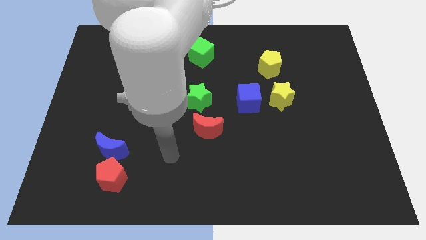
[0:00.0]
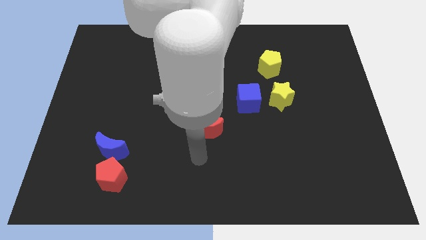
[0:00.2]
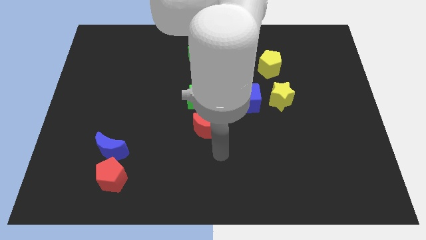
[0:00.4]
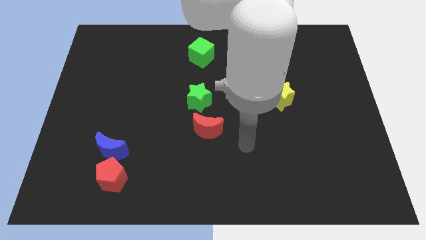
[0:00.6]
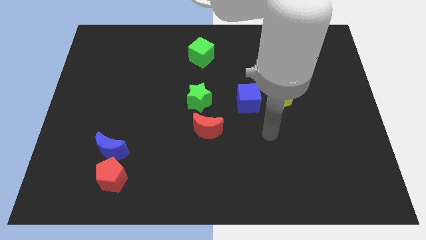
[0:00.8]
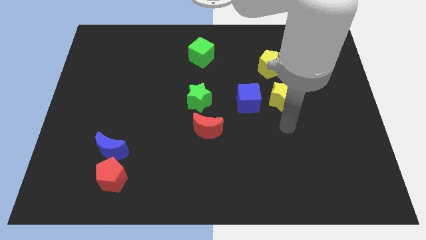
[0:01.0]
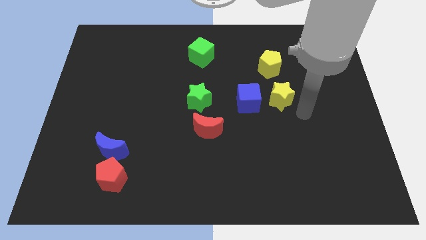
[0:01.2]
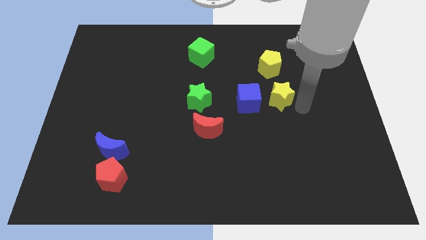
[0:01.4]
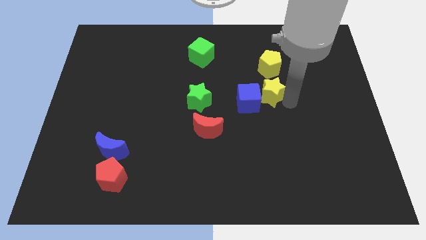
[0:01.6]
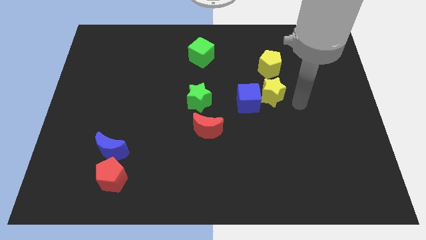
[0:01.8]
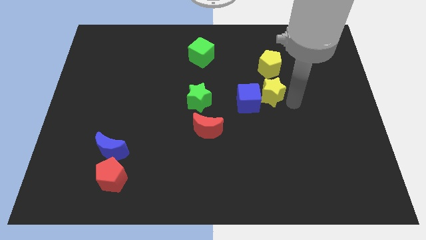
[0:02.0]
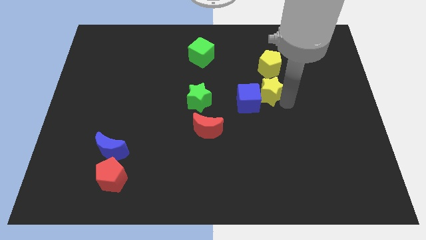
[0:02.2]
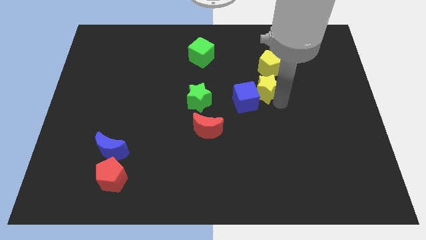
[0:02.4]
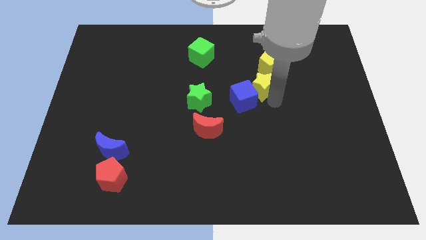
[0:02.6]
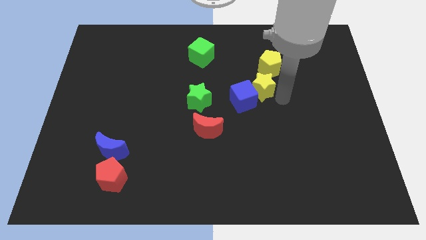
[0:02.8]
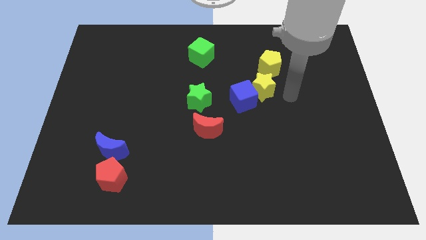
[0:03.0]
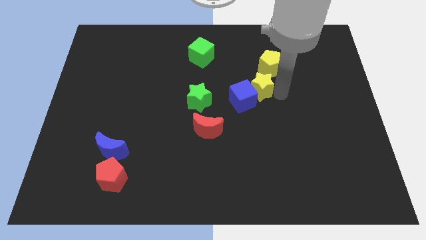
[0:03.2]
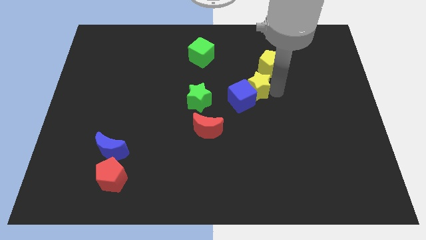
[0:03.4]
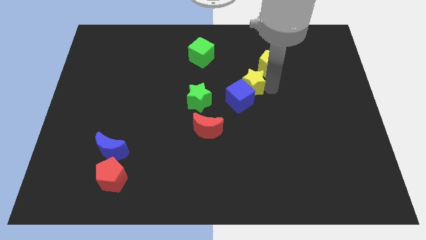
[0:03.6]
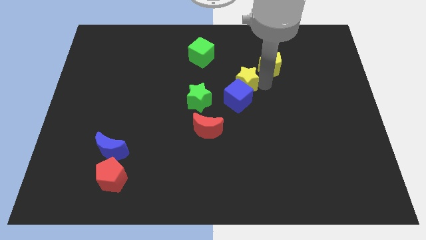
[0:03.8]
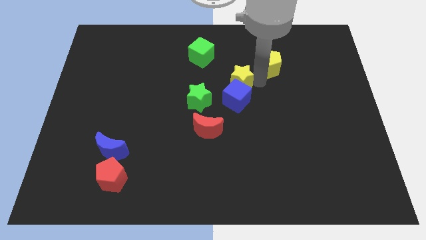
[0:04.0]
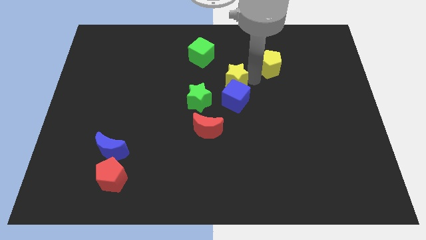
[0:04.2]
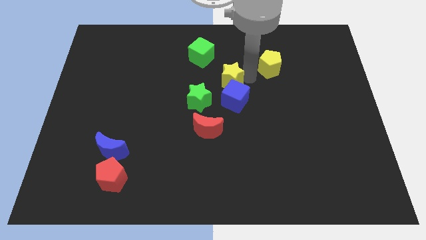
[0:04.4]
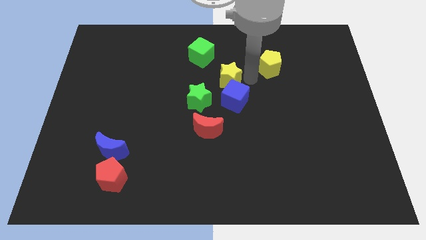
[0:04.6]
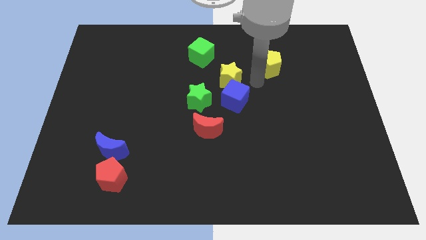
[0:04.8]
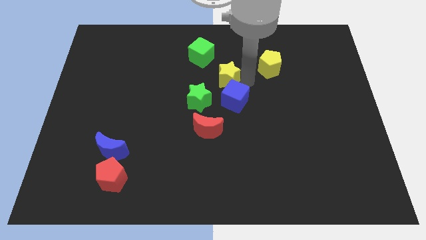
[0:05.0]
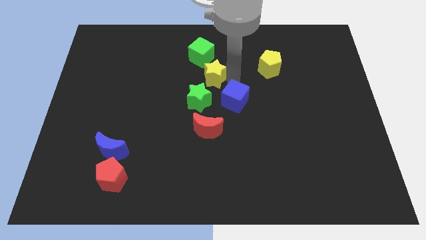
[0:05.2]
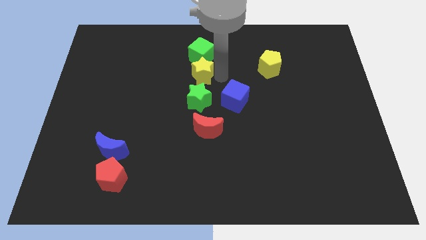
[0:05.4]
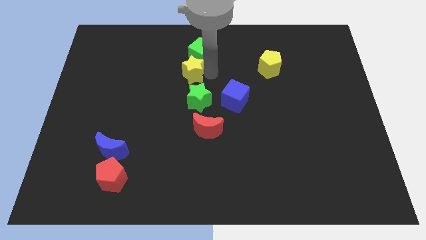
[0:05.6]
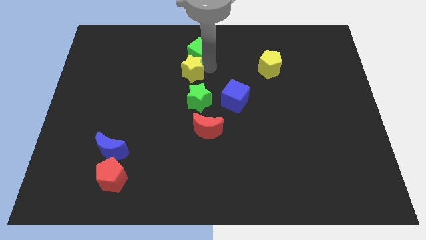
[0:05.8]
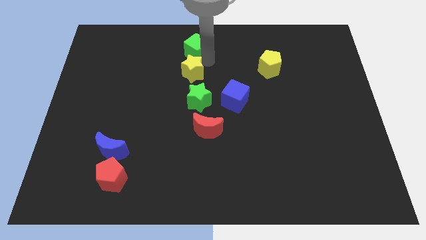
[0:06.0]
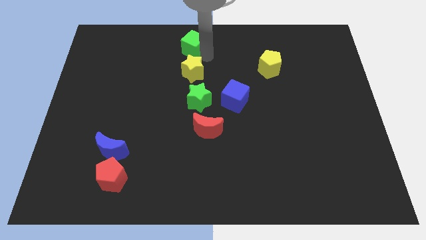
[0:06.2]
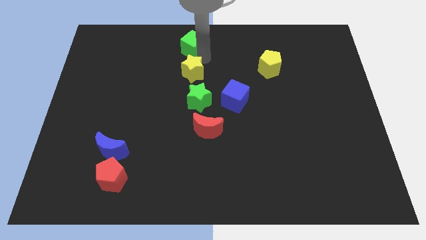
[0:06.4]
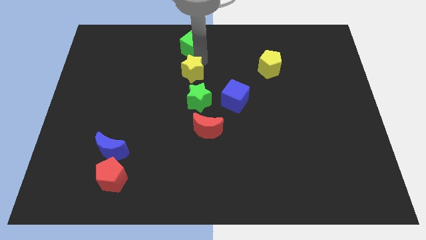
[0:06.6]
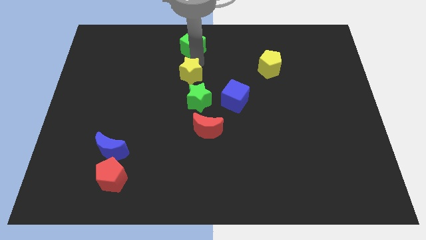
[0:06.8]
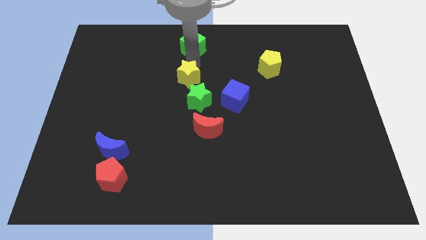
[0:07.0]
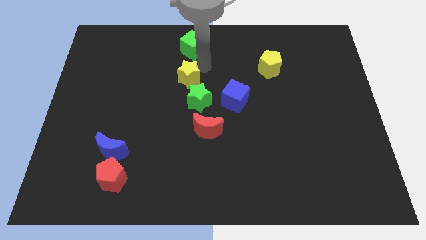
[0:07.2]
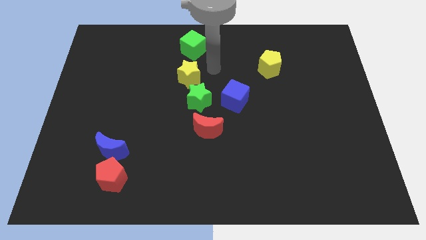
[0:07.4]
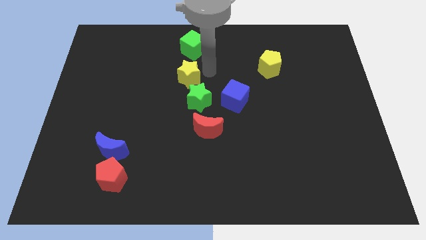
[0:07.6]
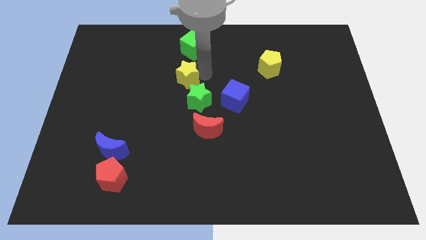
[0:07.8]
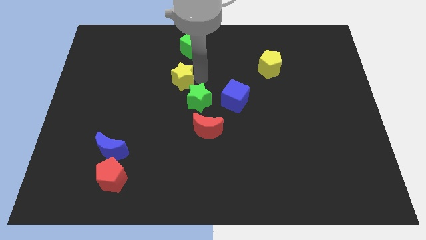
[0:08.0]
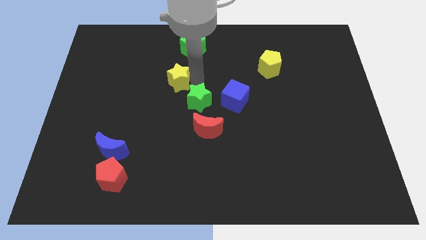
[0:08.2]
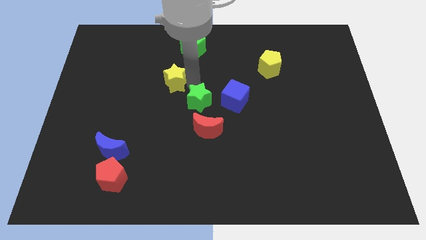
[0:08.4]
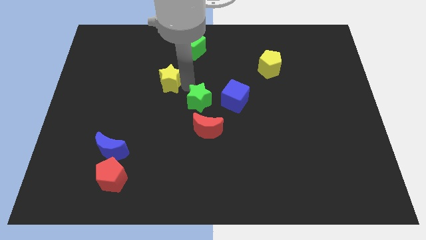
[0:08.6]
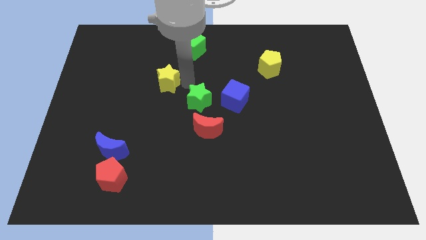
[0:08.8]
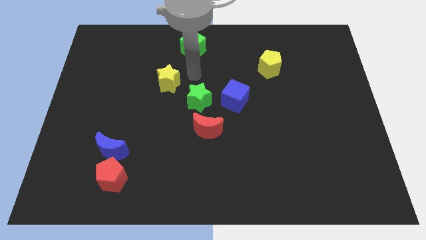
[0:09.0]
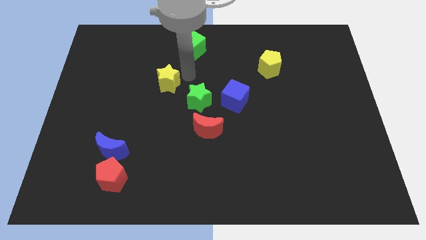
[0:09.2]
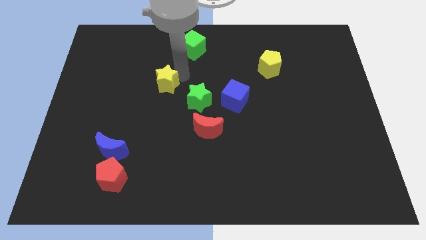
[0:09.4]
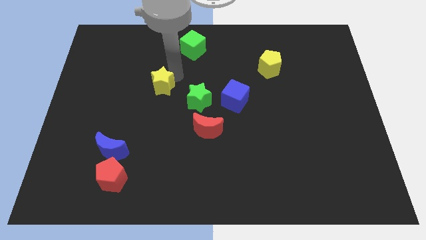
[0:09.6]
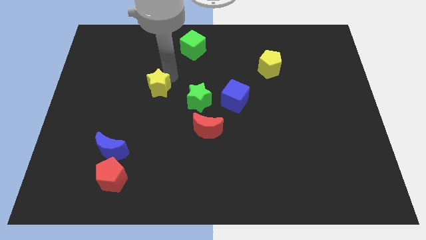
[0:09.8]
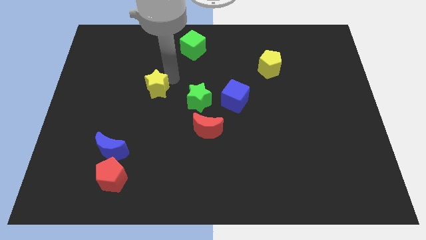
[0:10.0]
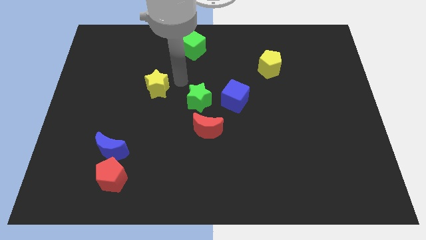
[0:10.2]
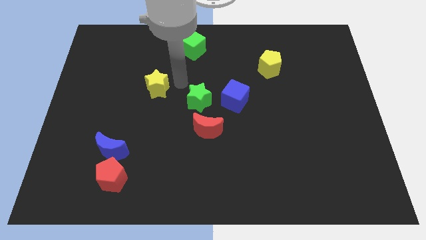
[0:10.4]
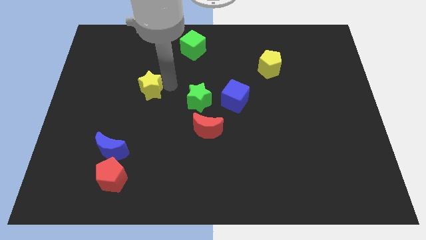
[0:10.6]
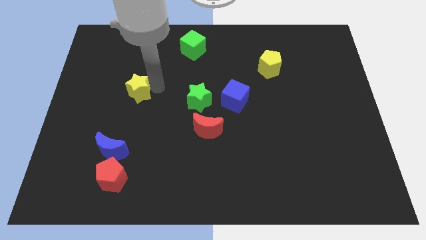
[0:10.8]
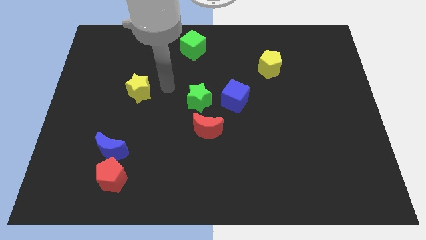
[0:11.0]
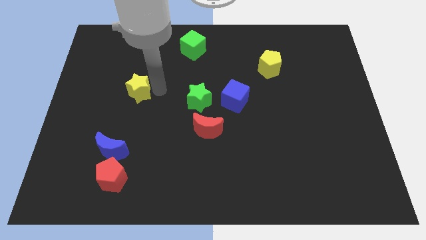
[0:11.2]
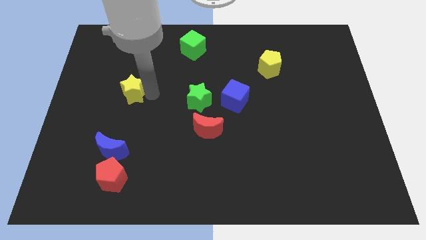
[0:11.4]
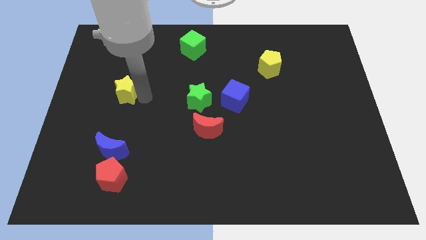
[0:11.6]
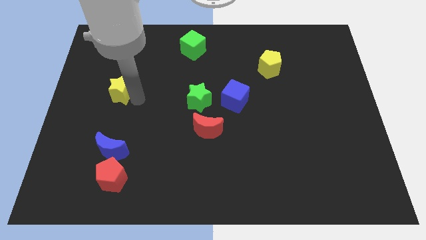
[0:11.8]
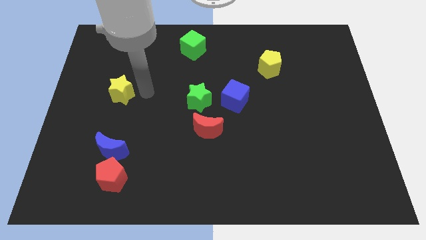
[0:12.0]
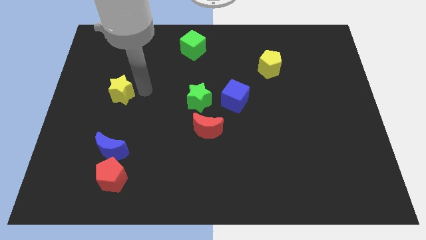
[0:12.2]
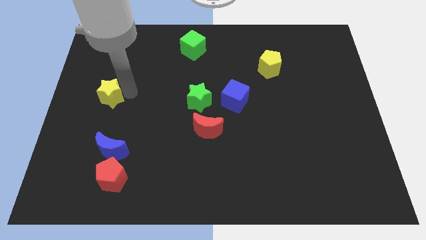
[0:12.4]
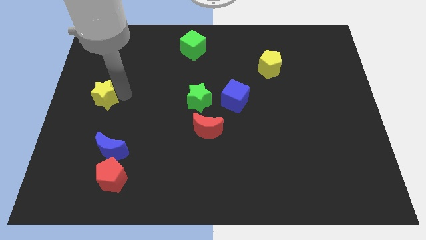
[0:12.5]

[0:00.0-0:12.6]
put the yellow star to the center left

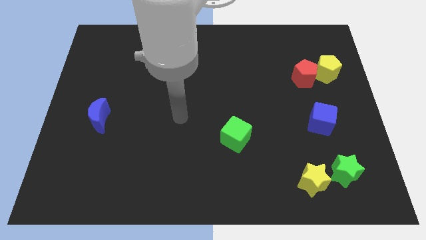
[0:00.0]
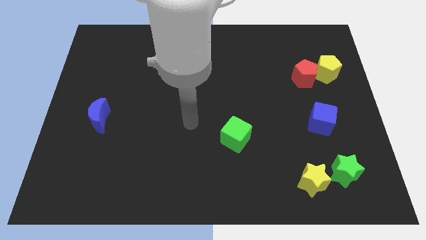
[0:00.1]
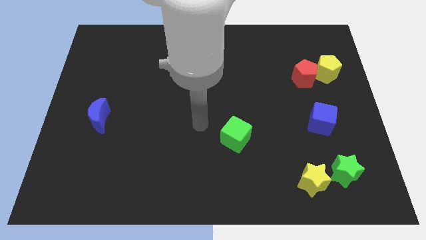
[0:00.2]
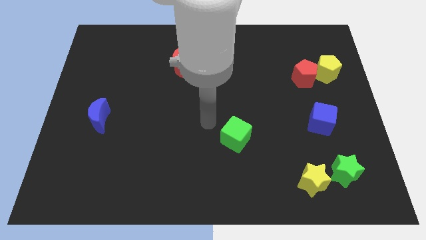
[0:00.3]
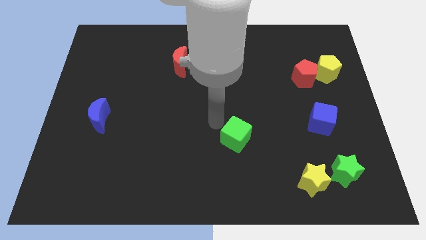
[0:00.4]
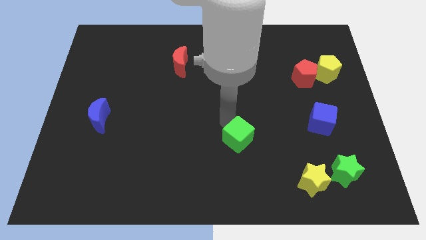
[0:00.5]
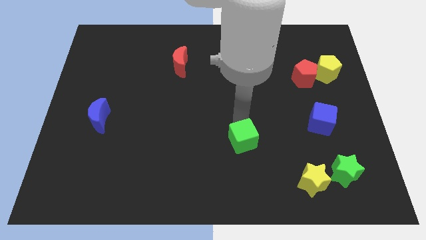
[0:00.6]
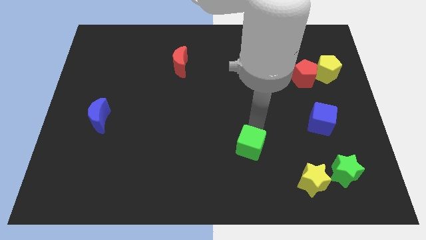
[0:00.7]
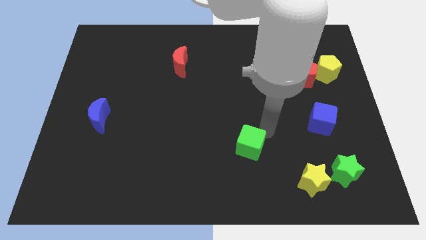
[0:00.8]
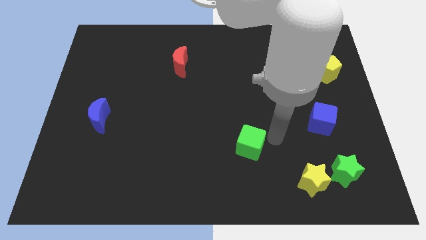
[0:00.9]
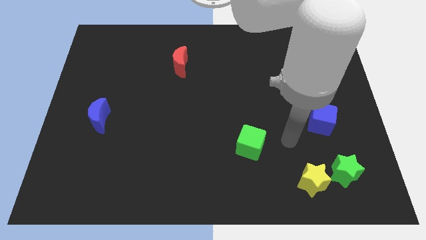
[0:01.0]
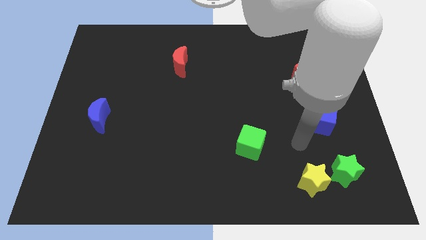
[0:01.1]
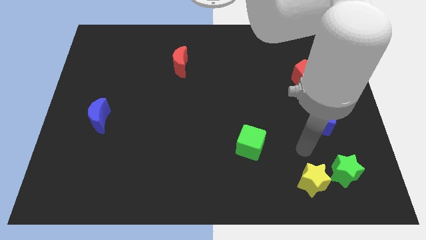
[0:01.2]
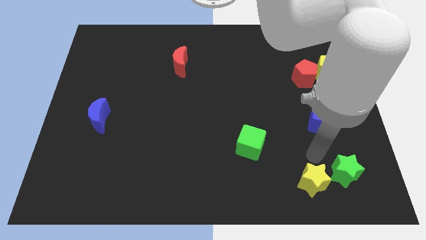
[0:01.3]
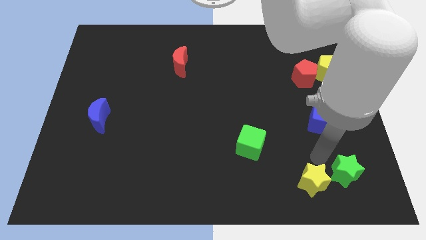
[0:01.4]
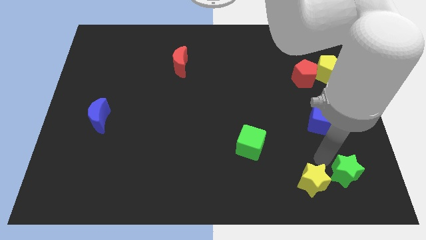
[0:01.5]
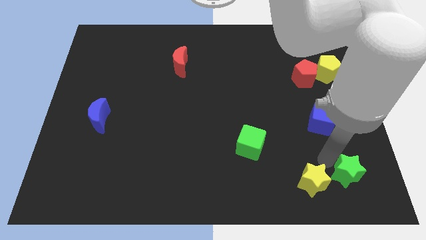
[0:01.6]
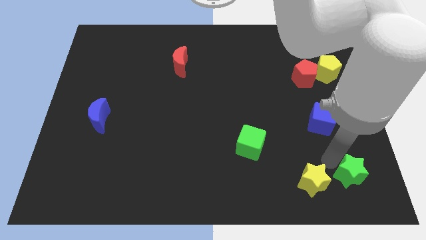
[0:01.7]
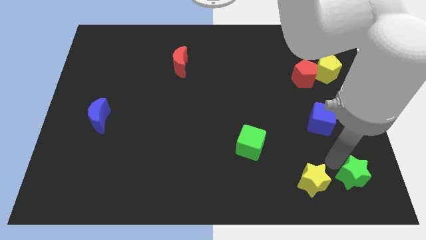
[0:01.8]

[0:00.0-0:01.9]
push the green star to the bottom right of the board
